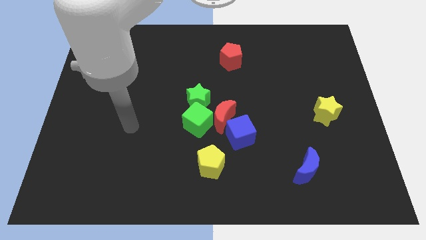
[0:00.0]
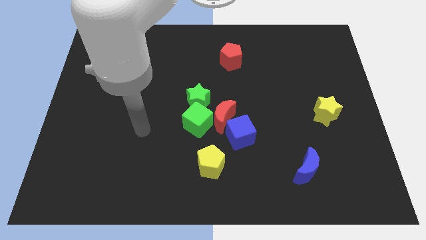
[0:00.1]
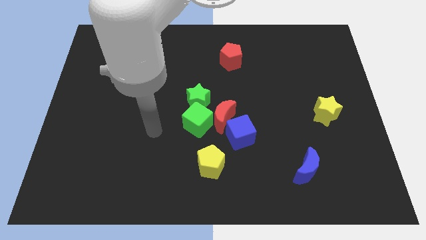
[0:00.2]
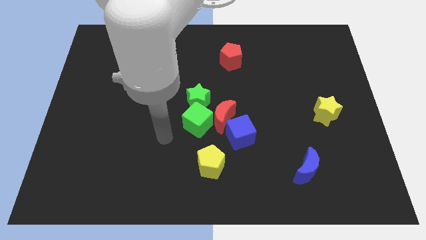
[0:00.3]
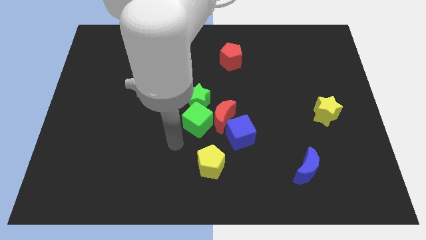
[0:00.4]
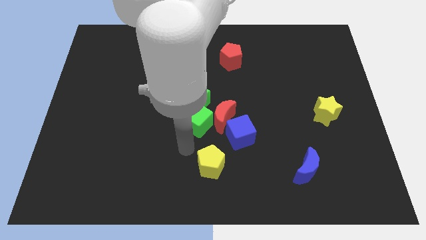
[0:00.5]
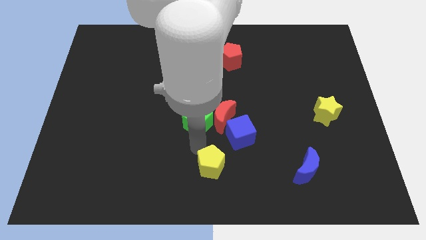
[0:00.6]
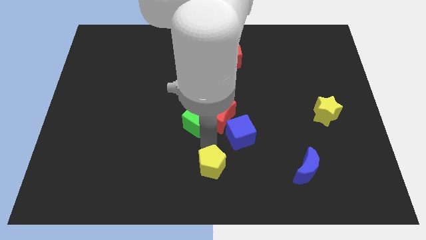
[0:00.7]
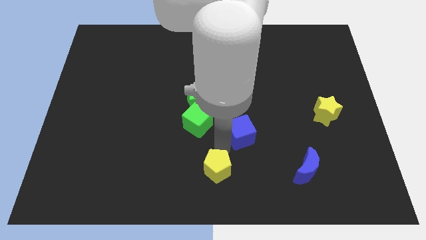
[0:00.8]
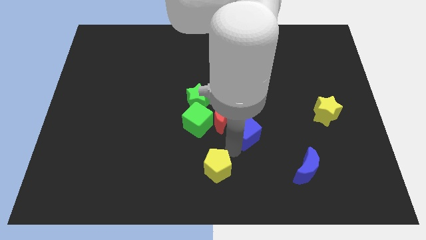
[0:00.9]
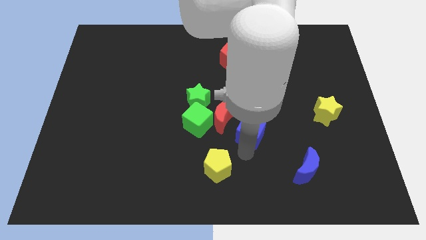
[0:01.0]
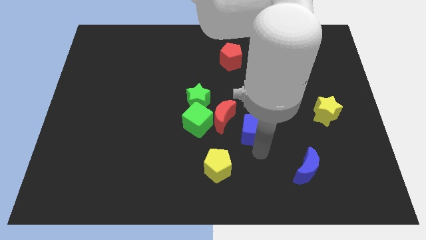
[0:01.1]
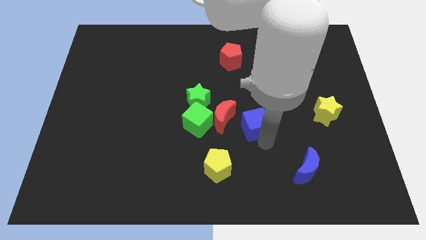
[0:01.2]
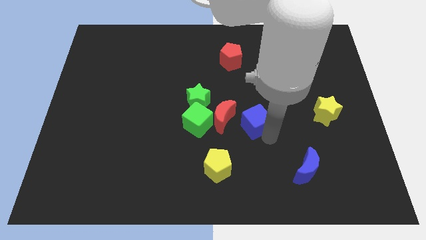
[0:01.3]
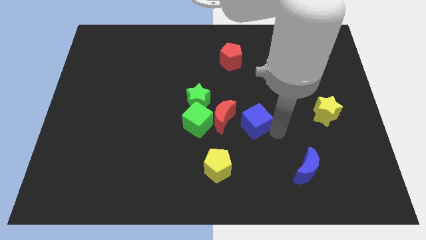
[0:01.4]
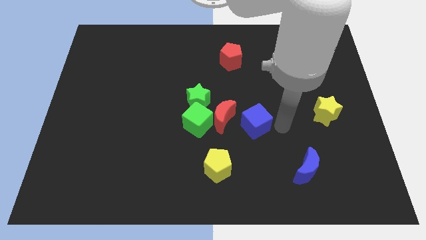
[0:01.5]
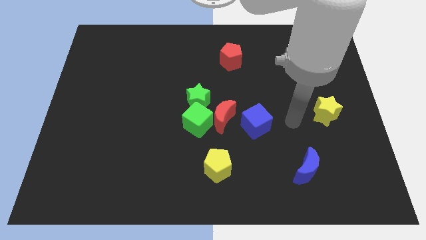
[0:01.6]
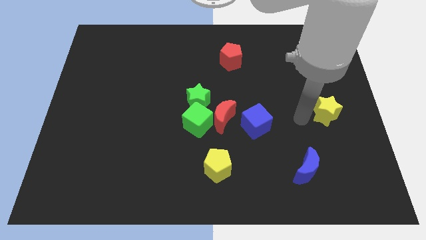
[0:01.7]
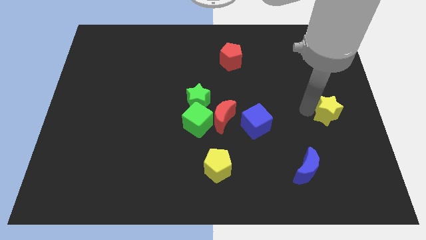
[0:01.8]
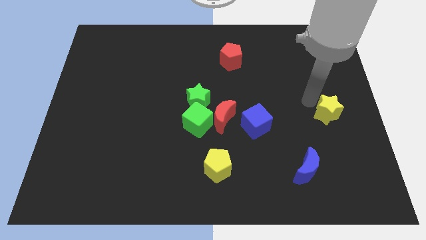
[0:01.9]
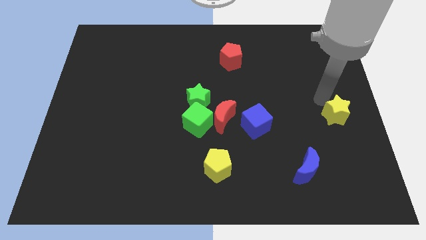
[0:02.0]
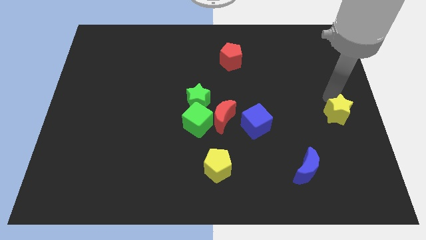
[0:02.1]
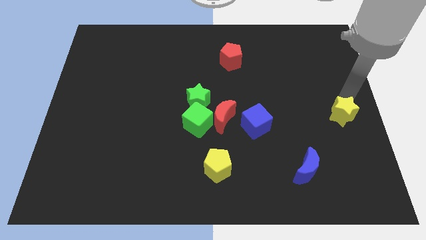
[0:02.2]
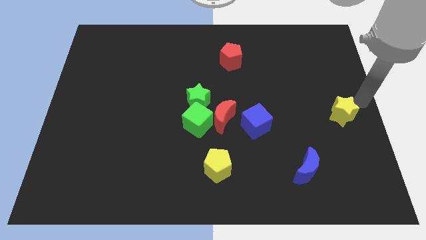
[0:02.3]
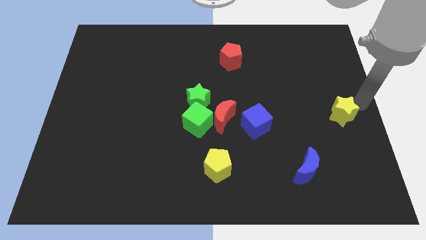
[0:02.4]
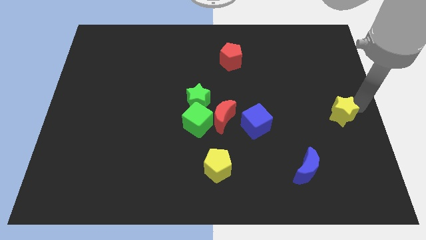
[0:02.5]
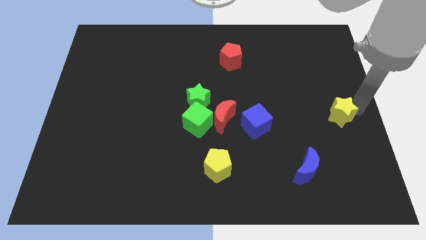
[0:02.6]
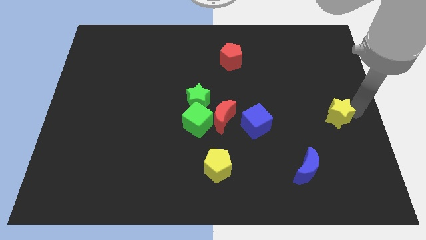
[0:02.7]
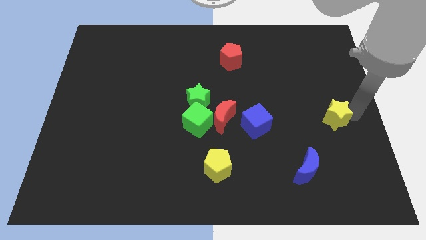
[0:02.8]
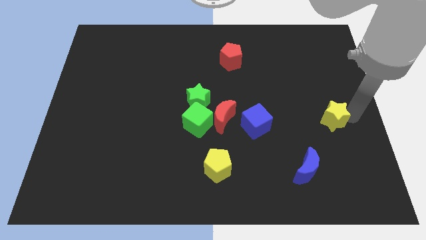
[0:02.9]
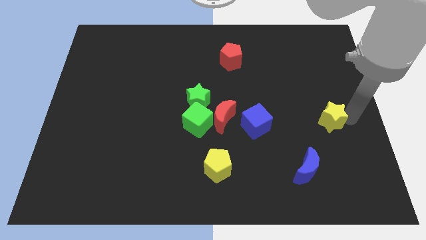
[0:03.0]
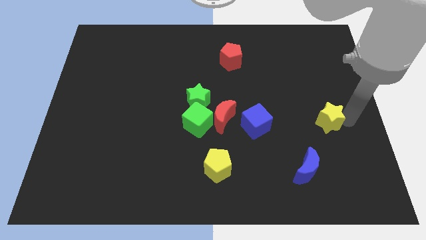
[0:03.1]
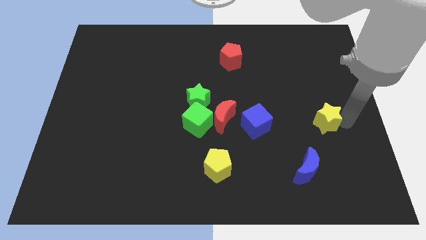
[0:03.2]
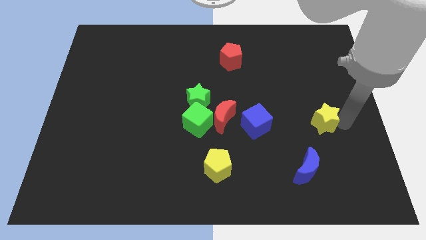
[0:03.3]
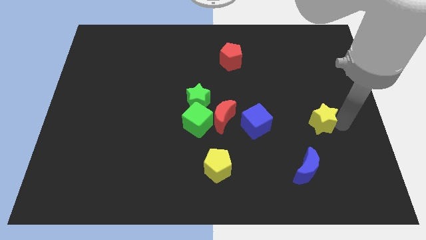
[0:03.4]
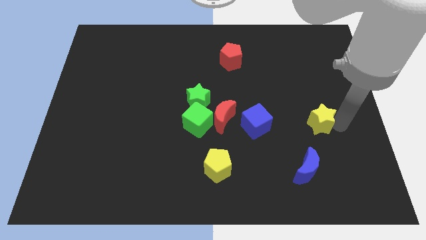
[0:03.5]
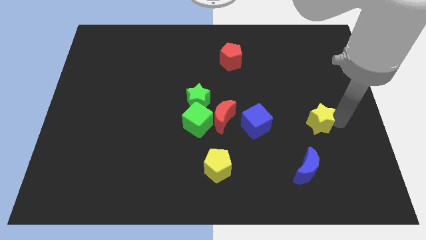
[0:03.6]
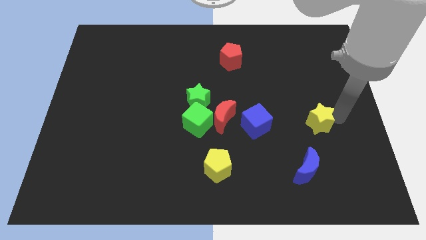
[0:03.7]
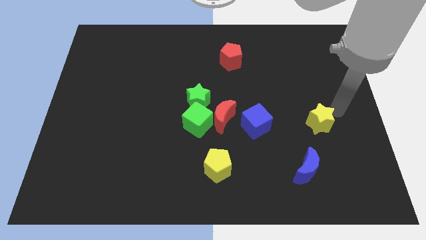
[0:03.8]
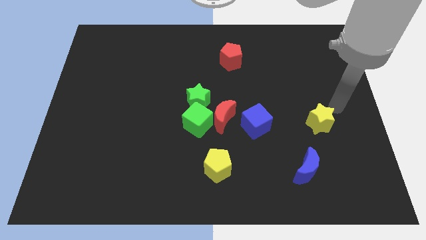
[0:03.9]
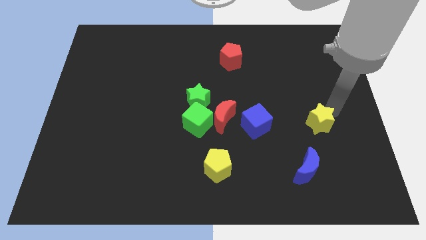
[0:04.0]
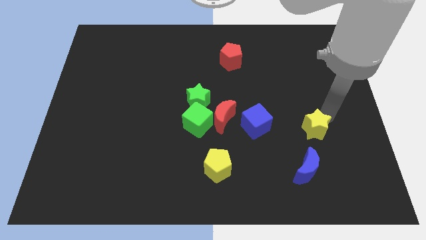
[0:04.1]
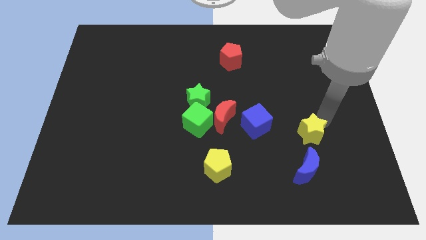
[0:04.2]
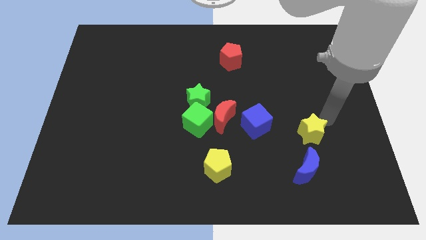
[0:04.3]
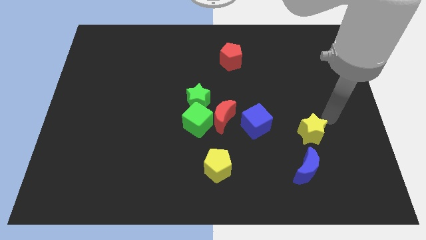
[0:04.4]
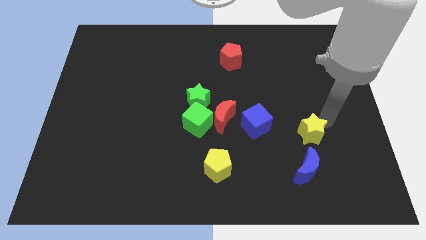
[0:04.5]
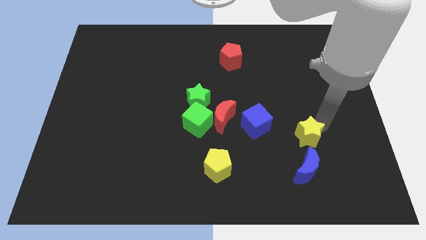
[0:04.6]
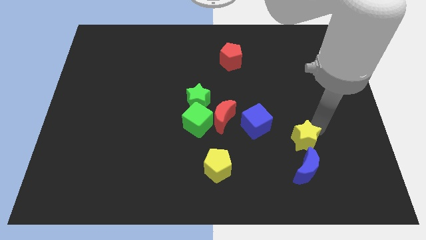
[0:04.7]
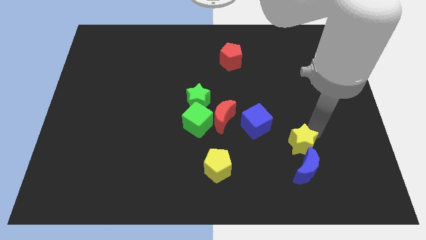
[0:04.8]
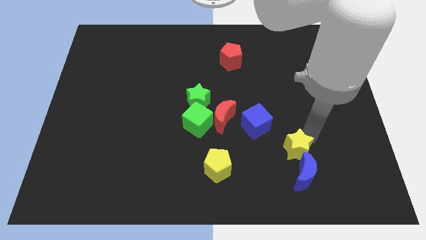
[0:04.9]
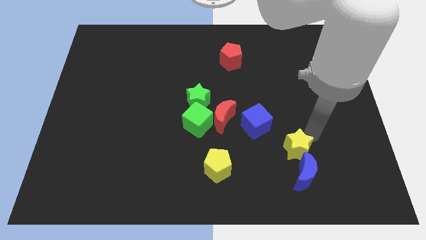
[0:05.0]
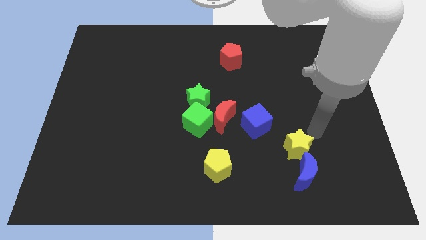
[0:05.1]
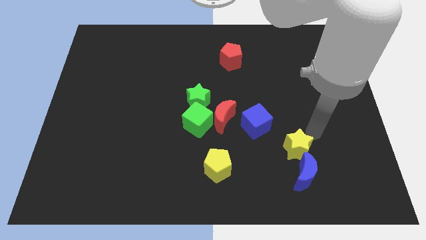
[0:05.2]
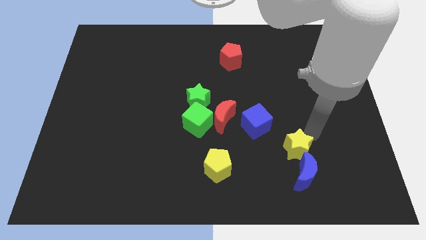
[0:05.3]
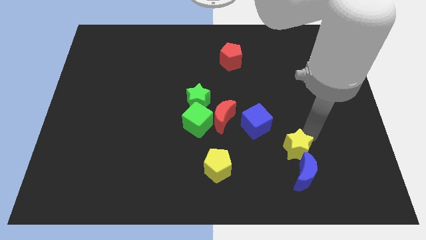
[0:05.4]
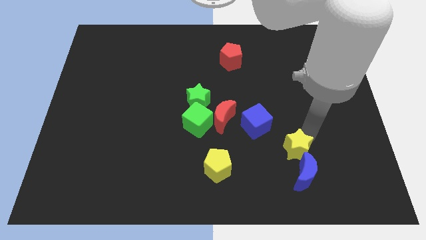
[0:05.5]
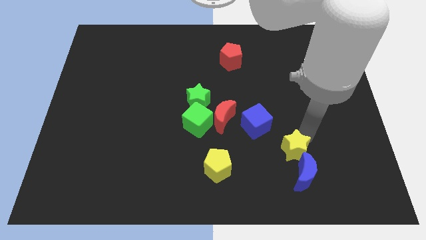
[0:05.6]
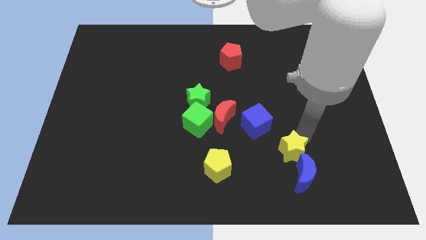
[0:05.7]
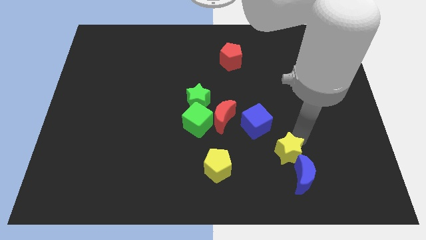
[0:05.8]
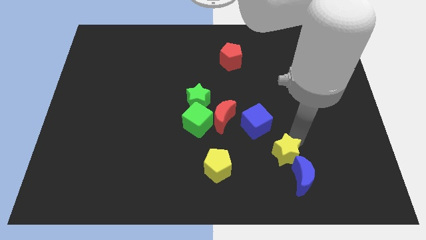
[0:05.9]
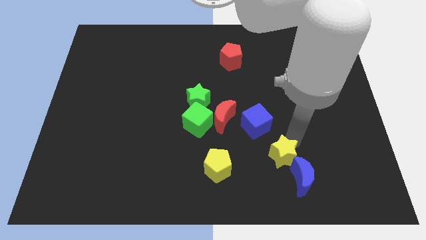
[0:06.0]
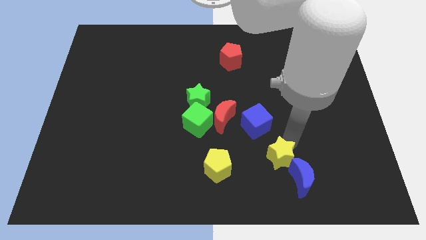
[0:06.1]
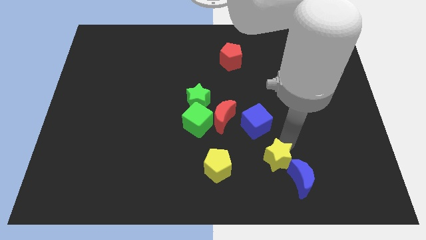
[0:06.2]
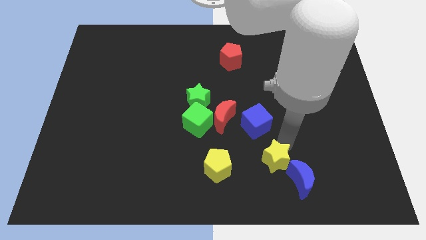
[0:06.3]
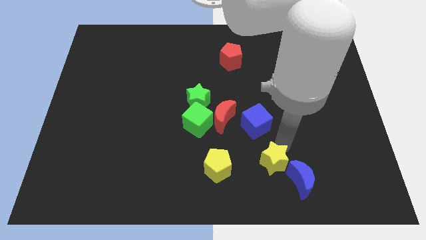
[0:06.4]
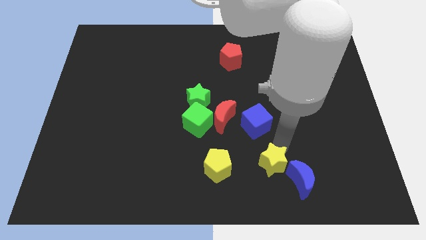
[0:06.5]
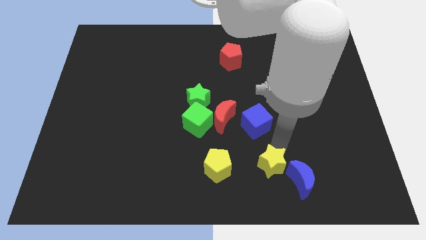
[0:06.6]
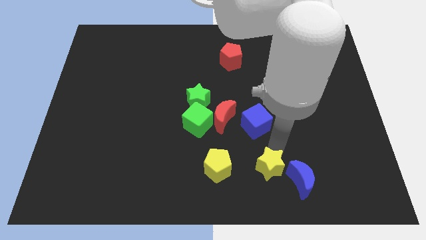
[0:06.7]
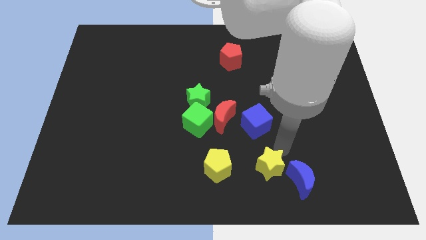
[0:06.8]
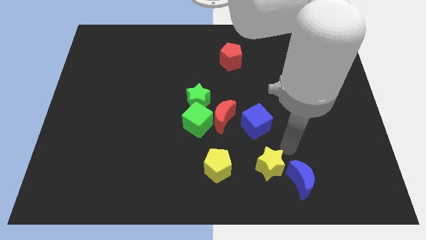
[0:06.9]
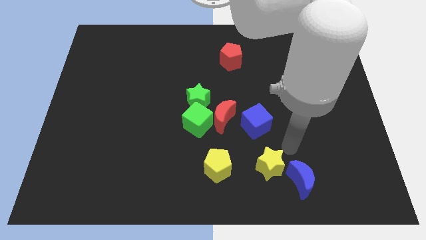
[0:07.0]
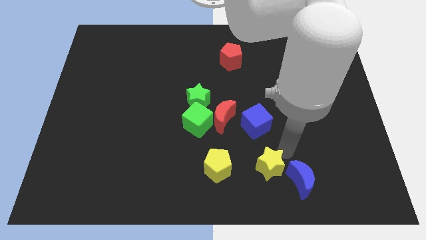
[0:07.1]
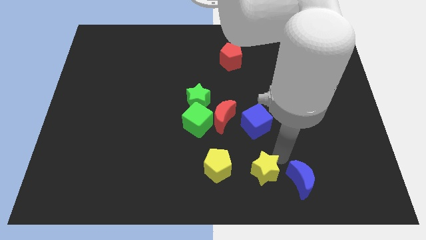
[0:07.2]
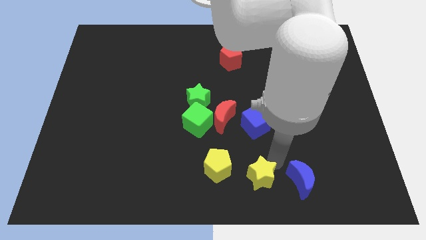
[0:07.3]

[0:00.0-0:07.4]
move the yellow star to the bottom
